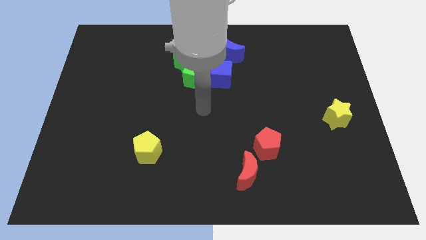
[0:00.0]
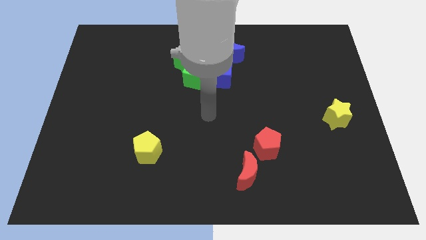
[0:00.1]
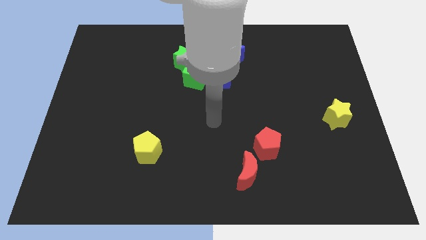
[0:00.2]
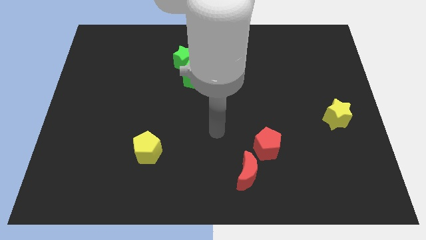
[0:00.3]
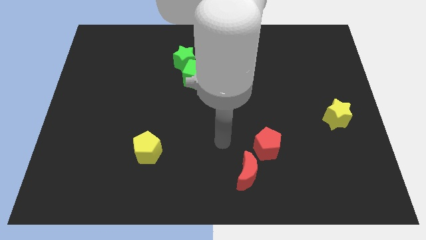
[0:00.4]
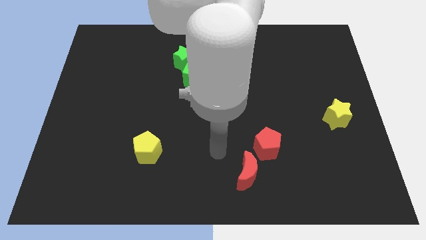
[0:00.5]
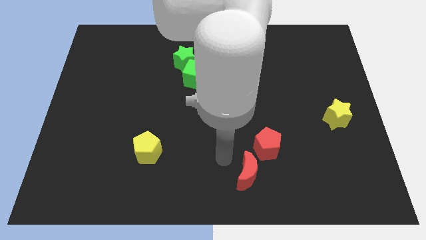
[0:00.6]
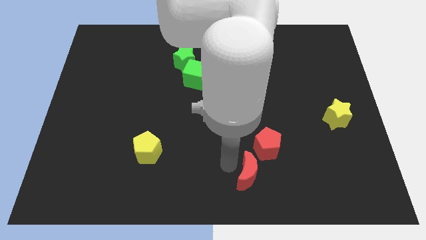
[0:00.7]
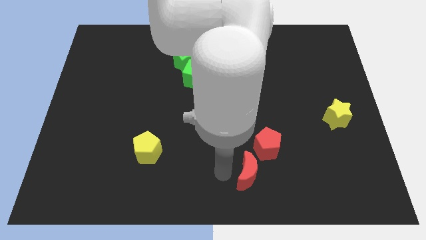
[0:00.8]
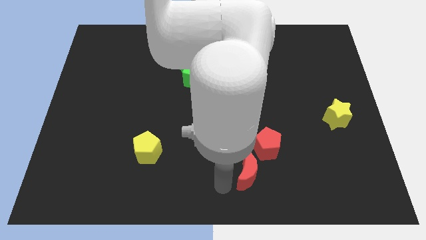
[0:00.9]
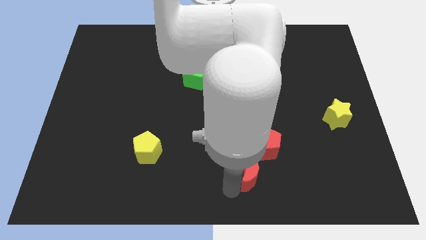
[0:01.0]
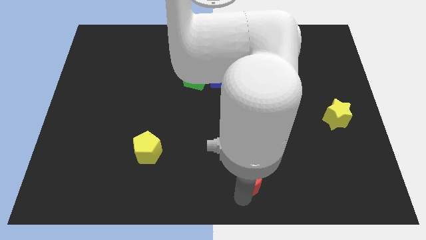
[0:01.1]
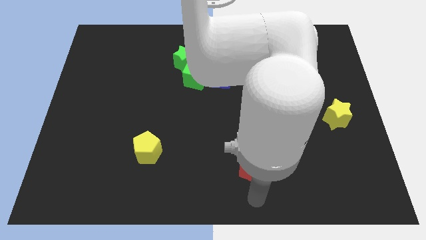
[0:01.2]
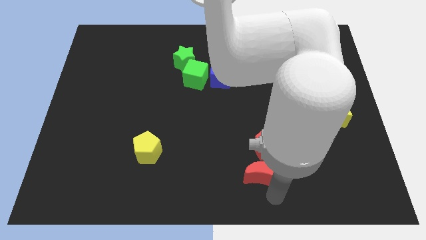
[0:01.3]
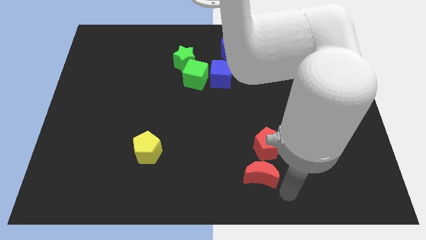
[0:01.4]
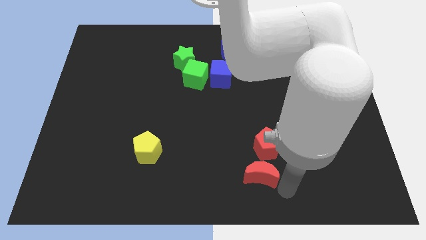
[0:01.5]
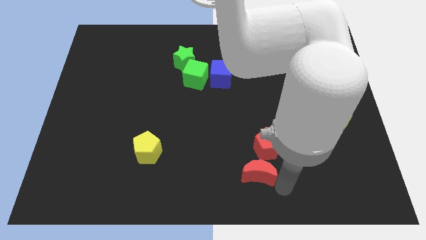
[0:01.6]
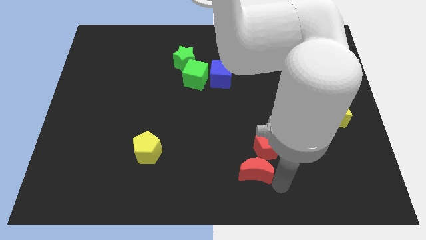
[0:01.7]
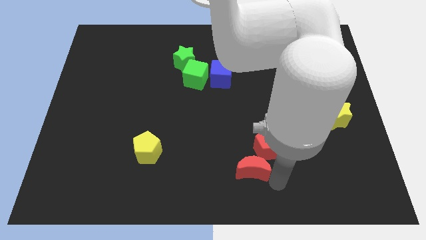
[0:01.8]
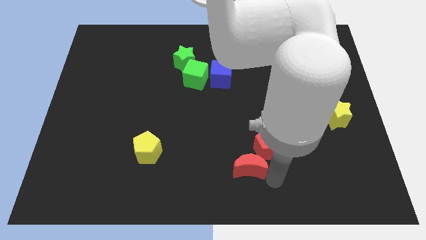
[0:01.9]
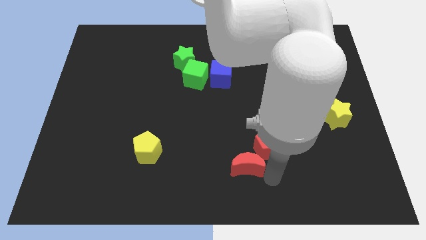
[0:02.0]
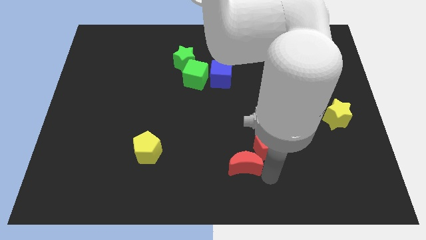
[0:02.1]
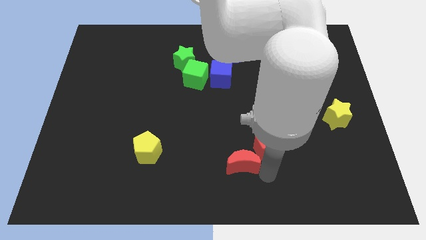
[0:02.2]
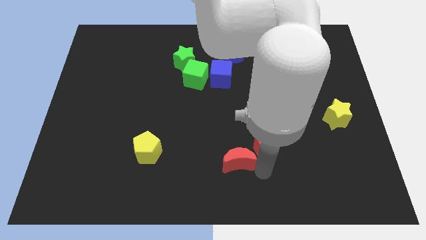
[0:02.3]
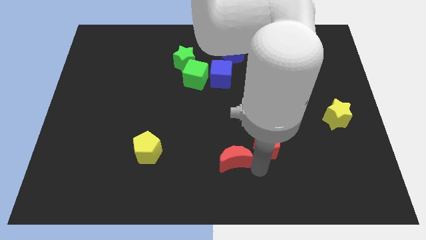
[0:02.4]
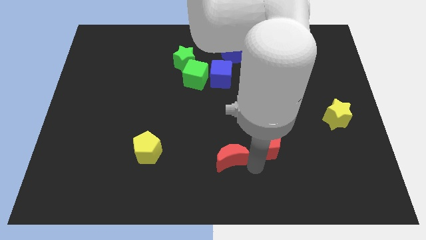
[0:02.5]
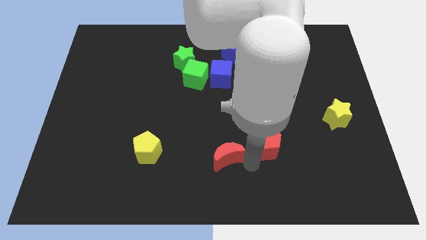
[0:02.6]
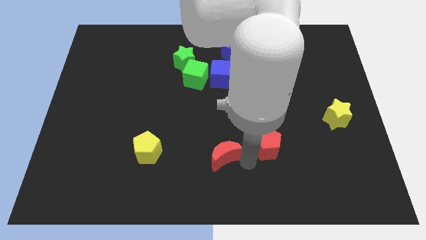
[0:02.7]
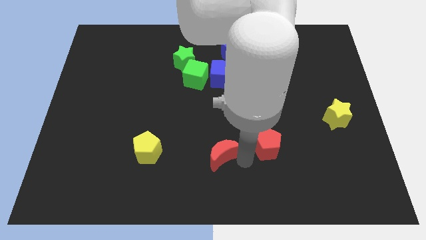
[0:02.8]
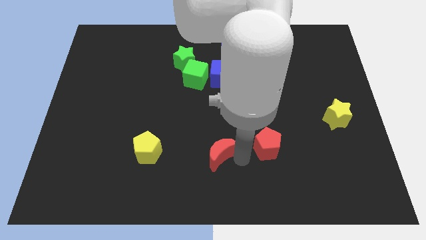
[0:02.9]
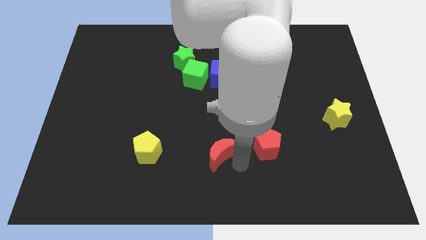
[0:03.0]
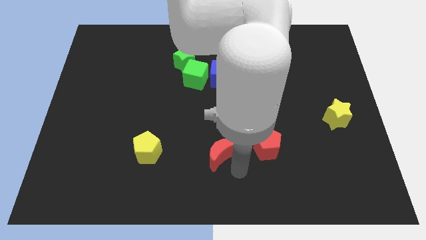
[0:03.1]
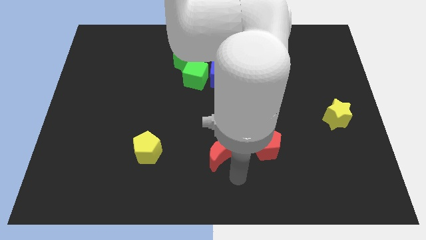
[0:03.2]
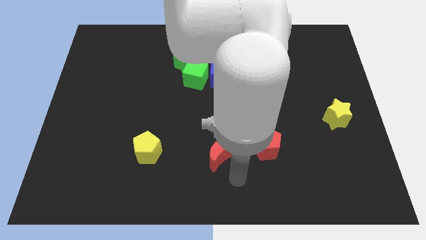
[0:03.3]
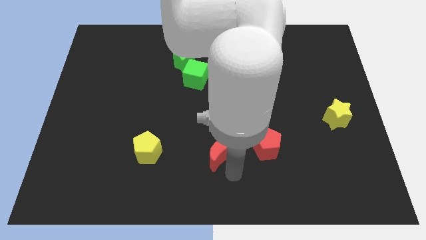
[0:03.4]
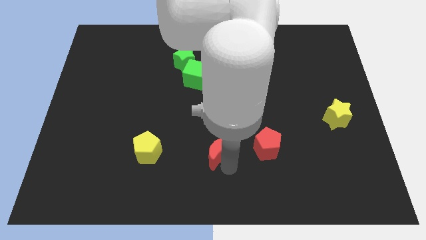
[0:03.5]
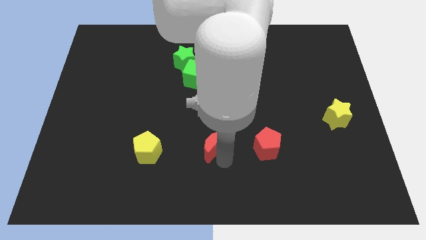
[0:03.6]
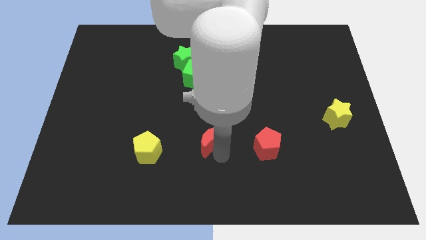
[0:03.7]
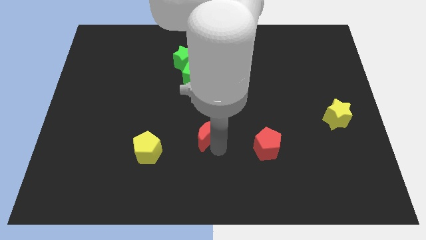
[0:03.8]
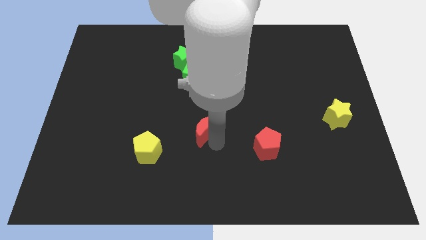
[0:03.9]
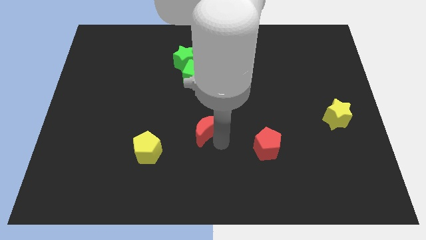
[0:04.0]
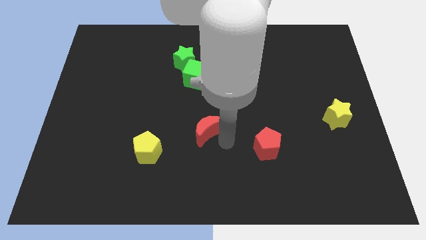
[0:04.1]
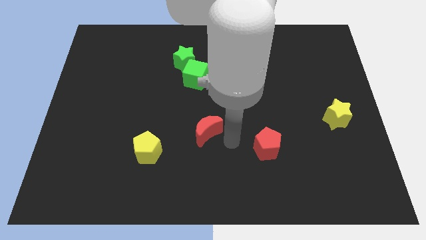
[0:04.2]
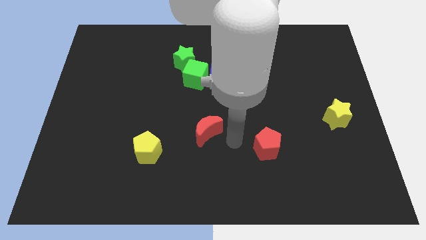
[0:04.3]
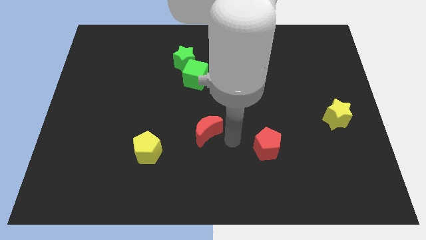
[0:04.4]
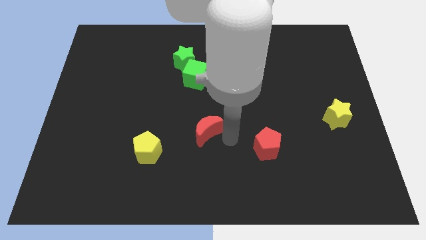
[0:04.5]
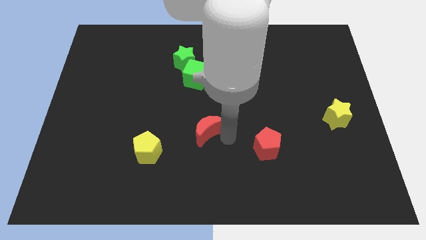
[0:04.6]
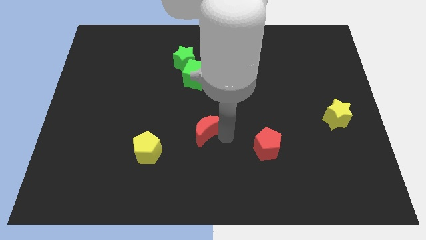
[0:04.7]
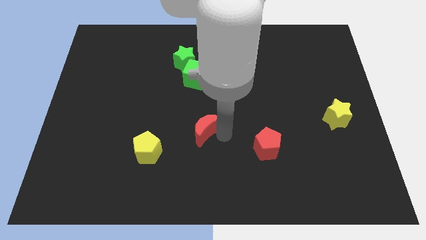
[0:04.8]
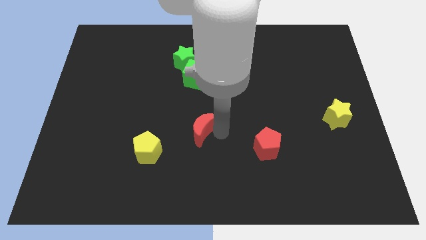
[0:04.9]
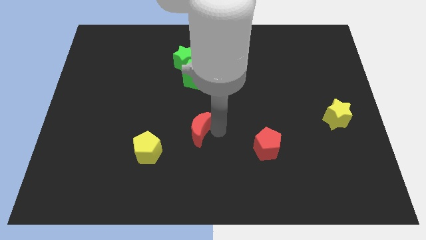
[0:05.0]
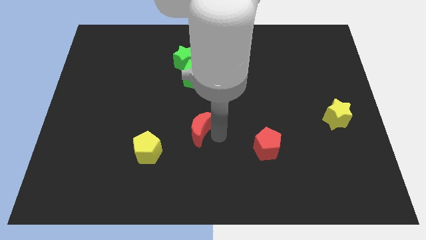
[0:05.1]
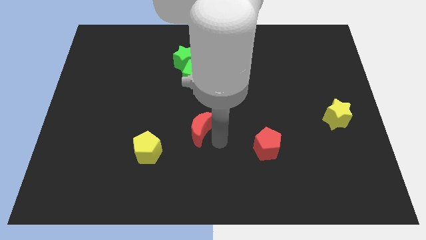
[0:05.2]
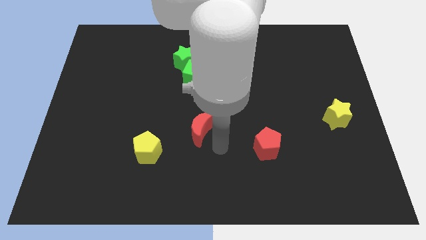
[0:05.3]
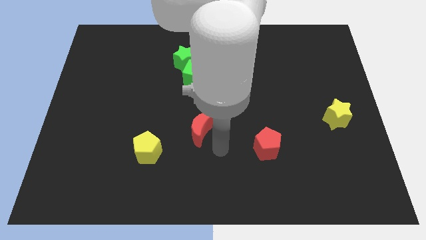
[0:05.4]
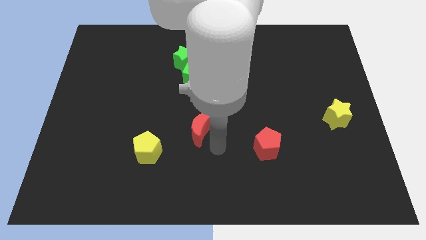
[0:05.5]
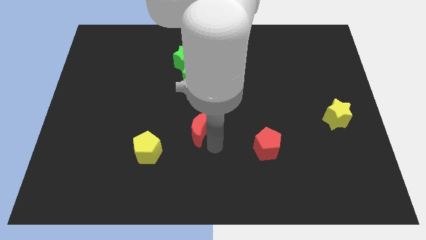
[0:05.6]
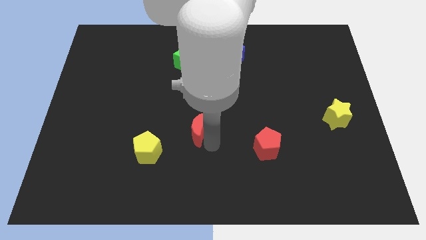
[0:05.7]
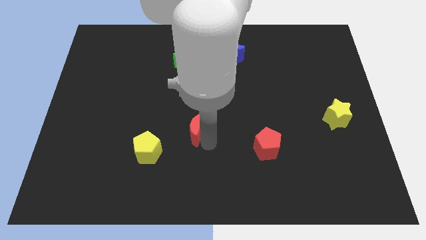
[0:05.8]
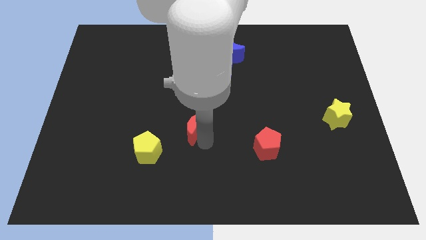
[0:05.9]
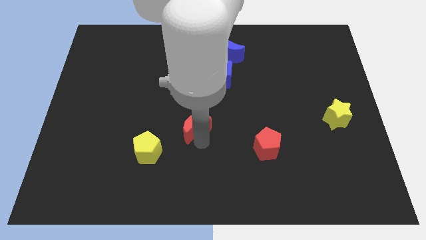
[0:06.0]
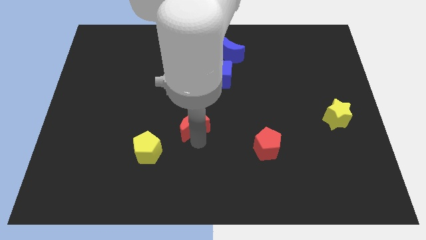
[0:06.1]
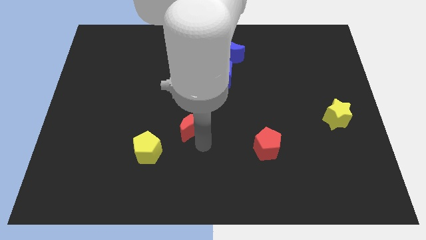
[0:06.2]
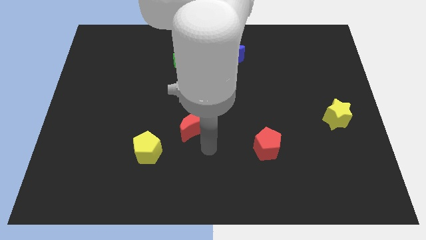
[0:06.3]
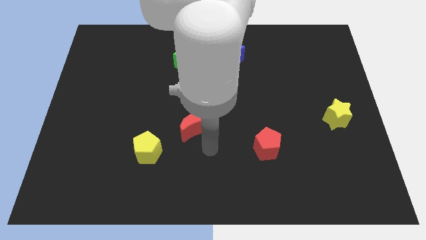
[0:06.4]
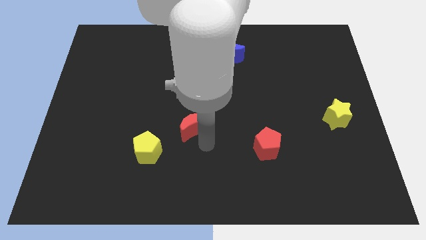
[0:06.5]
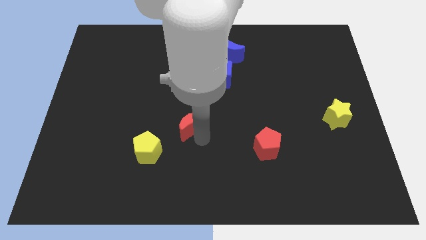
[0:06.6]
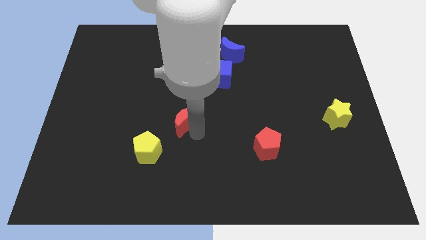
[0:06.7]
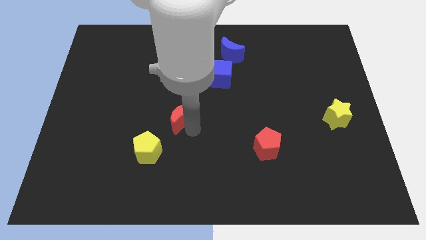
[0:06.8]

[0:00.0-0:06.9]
push the red moon upwards and left

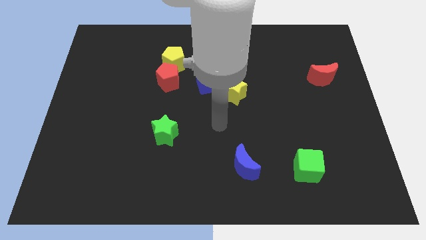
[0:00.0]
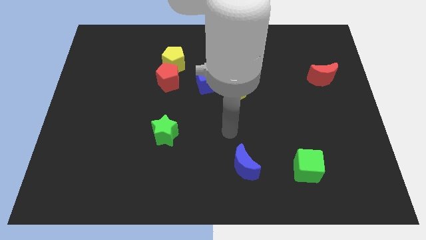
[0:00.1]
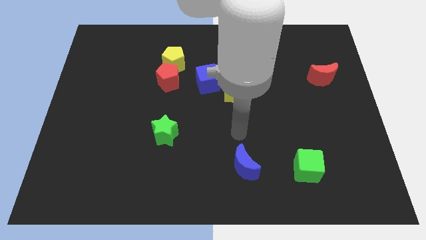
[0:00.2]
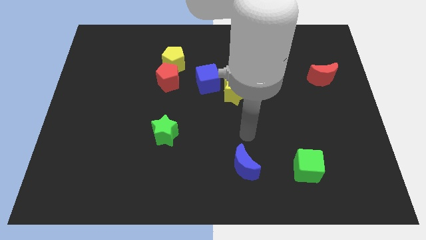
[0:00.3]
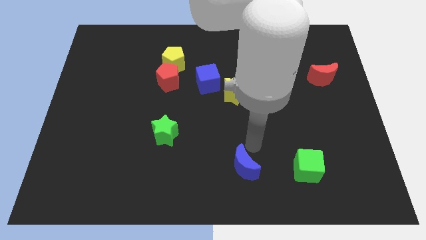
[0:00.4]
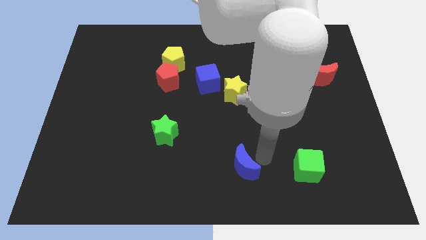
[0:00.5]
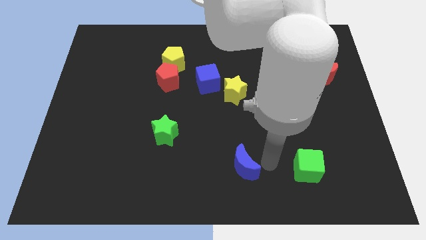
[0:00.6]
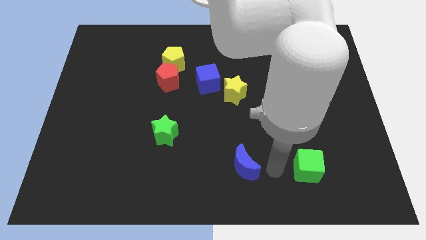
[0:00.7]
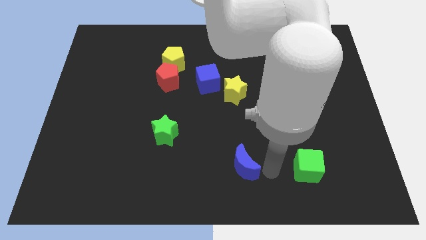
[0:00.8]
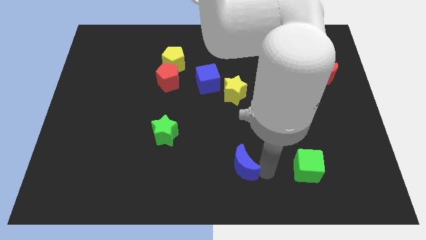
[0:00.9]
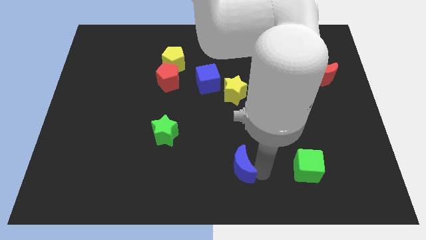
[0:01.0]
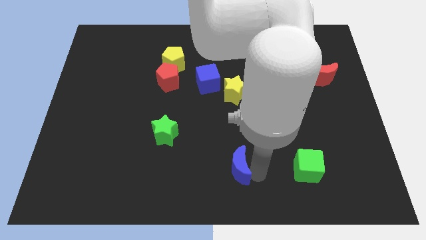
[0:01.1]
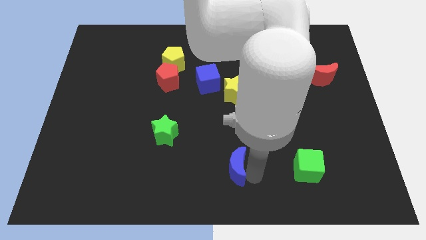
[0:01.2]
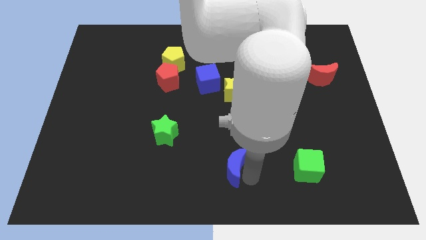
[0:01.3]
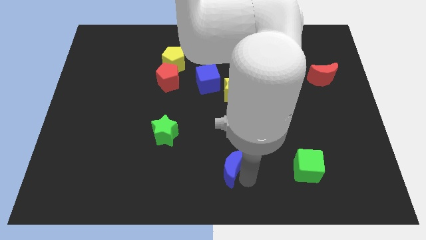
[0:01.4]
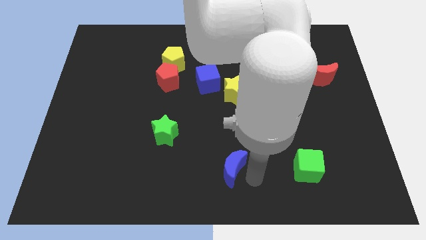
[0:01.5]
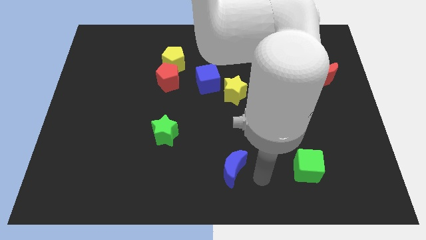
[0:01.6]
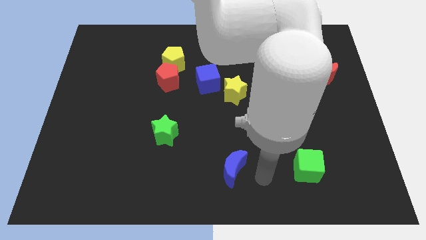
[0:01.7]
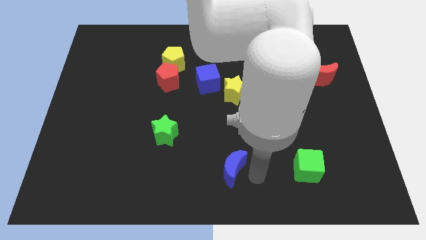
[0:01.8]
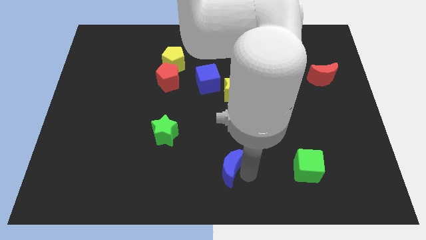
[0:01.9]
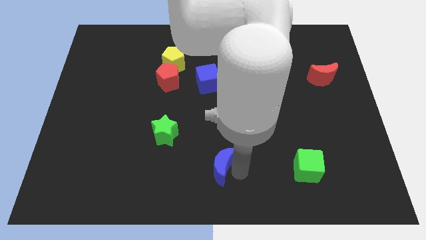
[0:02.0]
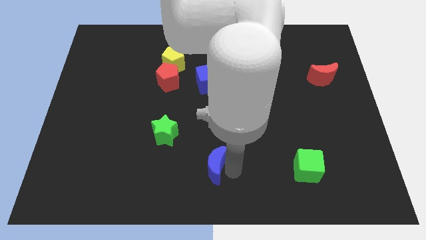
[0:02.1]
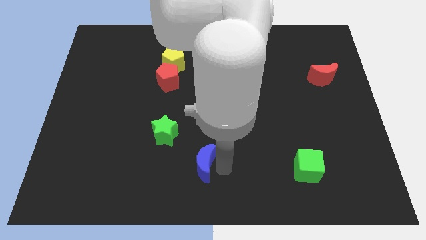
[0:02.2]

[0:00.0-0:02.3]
push the blue moon a little left
